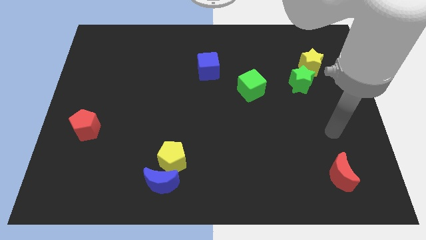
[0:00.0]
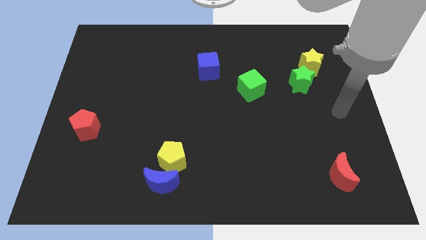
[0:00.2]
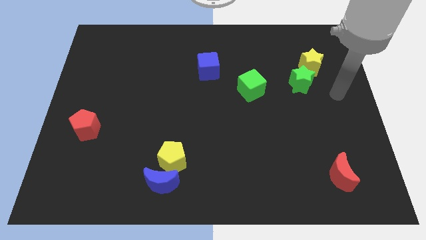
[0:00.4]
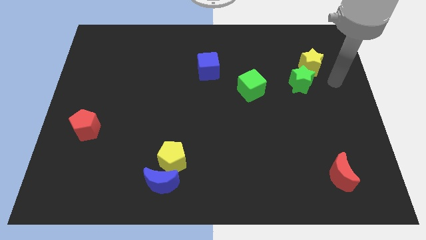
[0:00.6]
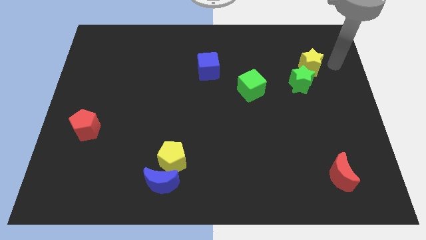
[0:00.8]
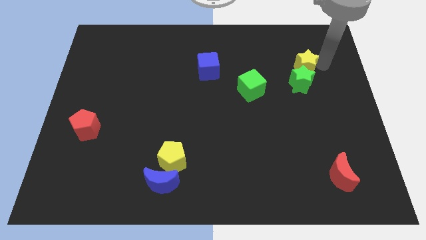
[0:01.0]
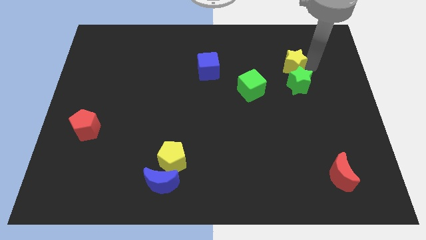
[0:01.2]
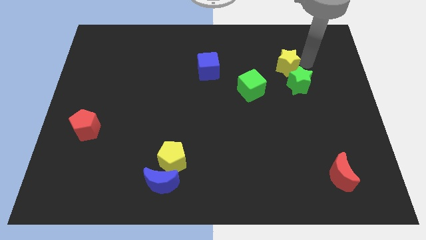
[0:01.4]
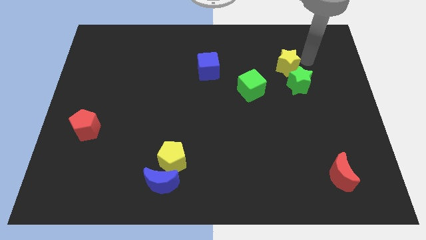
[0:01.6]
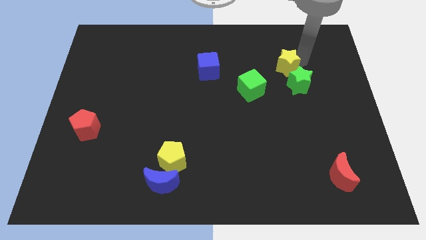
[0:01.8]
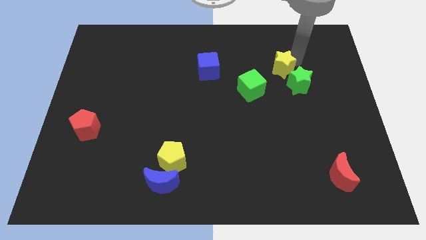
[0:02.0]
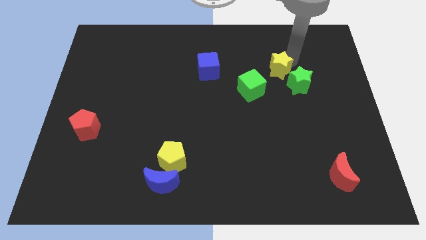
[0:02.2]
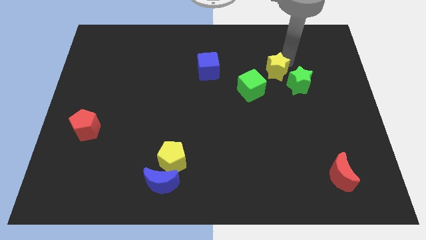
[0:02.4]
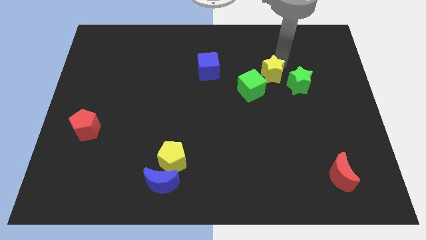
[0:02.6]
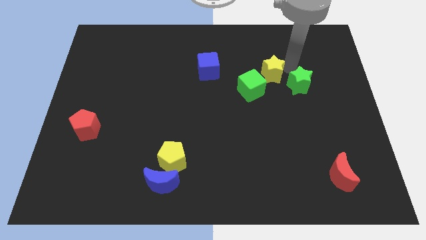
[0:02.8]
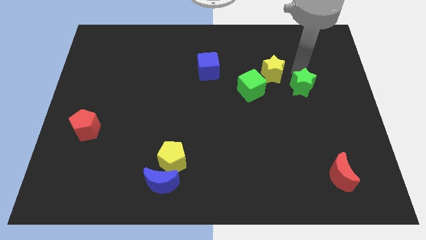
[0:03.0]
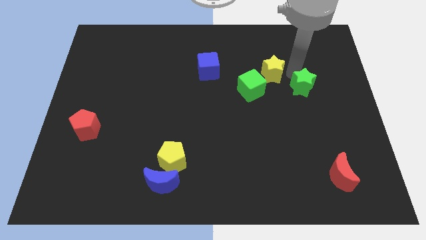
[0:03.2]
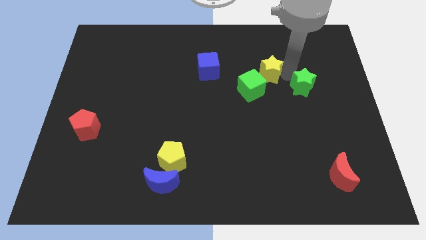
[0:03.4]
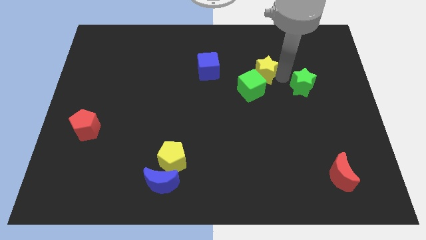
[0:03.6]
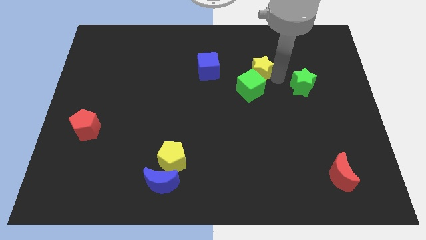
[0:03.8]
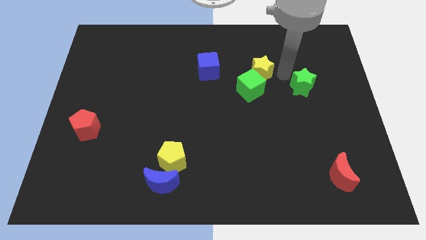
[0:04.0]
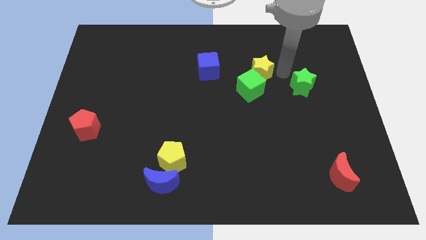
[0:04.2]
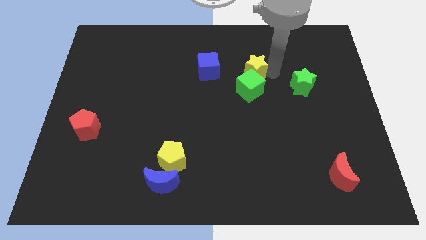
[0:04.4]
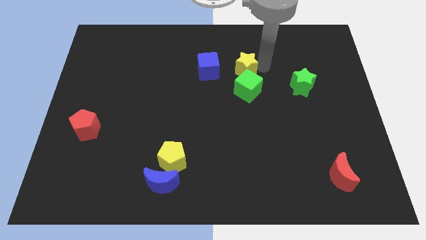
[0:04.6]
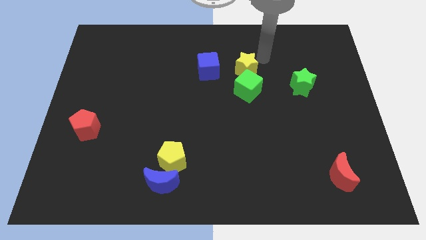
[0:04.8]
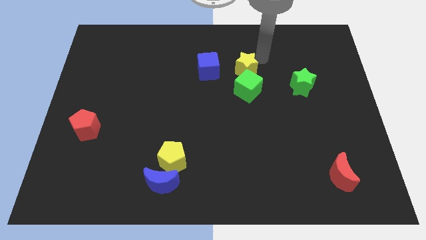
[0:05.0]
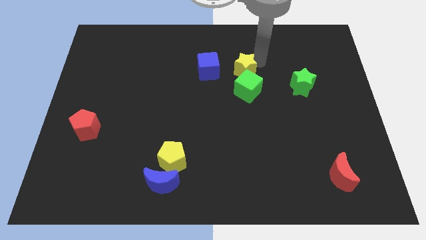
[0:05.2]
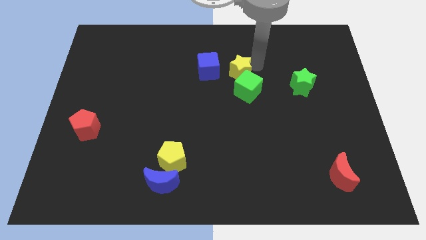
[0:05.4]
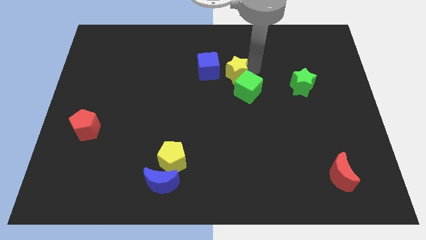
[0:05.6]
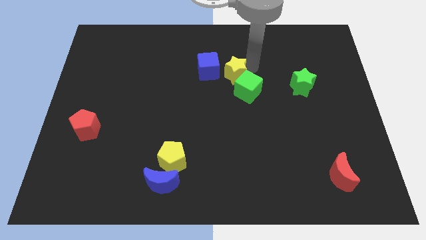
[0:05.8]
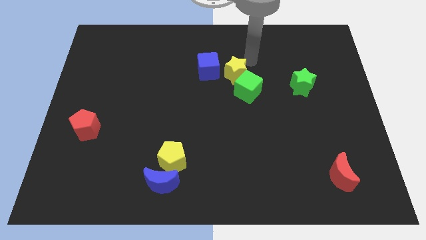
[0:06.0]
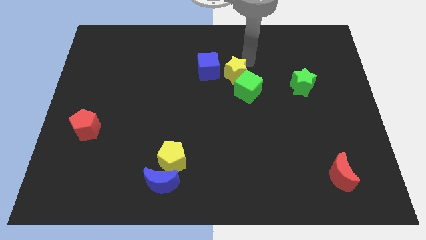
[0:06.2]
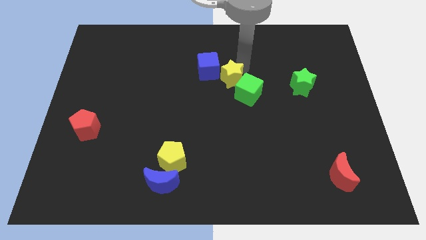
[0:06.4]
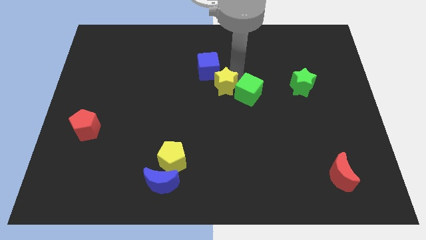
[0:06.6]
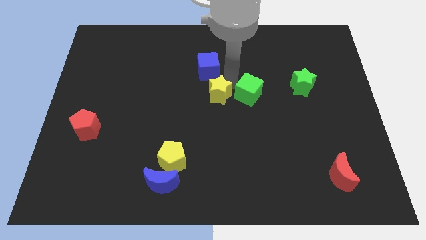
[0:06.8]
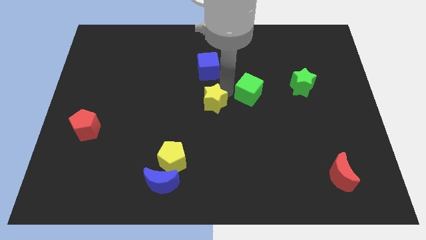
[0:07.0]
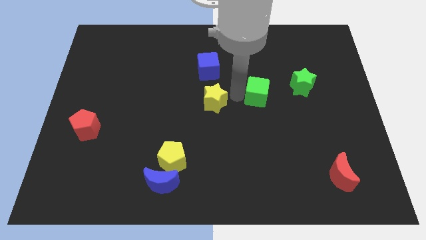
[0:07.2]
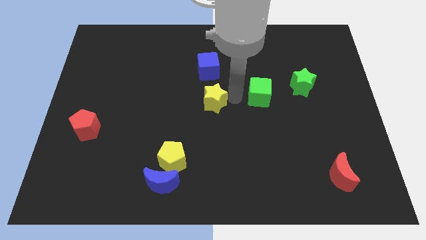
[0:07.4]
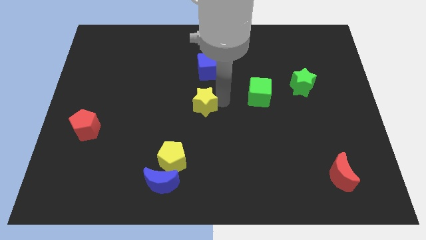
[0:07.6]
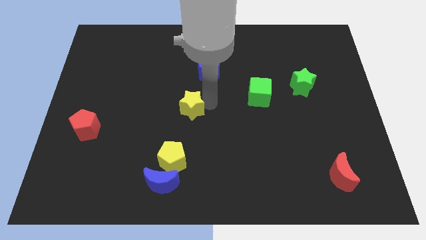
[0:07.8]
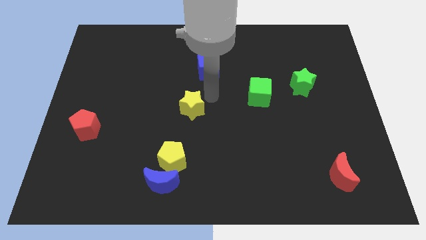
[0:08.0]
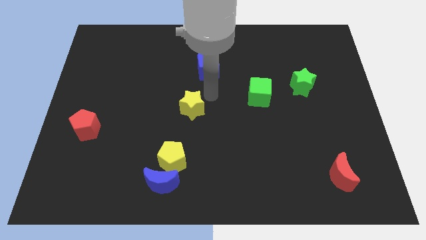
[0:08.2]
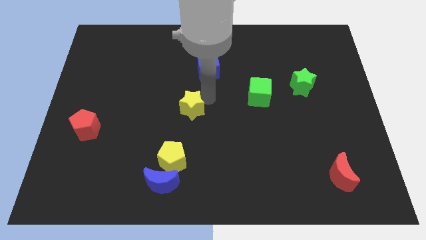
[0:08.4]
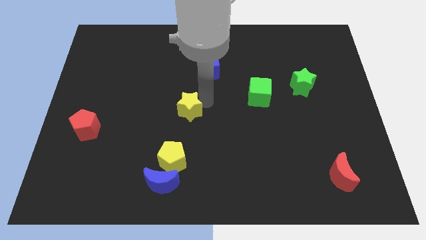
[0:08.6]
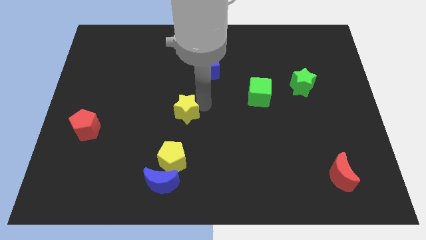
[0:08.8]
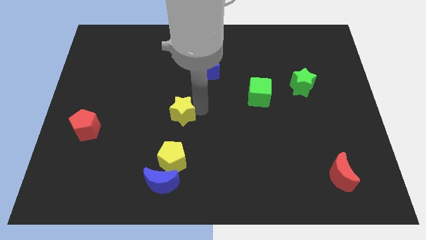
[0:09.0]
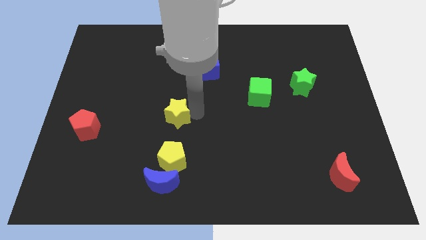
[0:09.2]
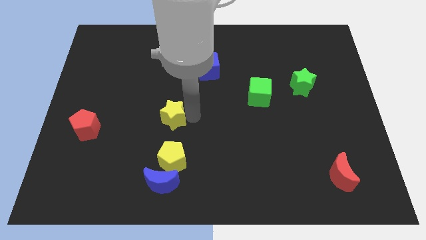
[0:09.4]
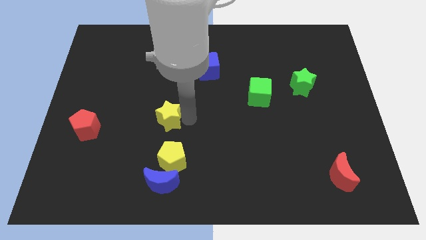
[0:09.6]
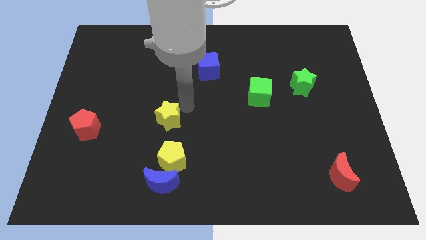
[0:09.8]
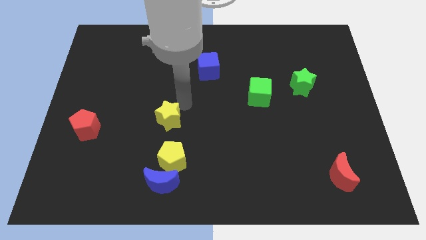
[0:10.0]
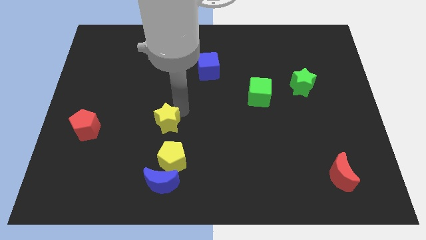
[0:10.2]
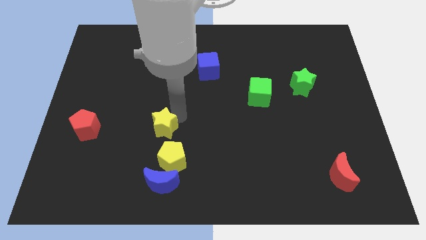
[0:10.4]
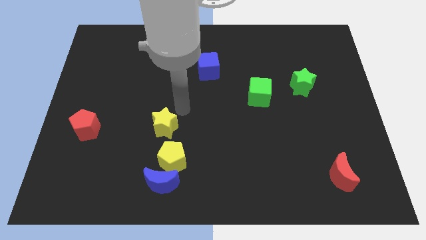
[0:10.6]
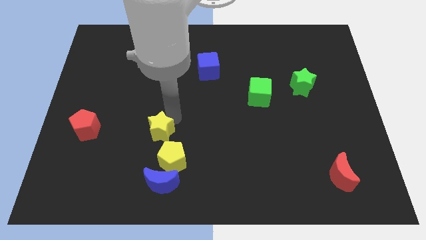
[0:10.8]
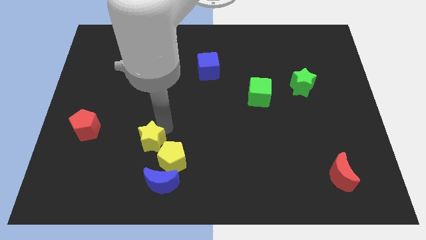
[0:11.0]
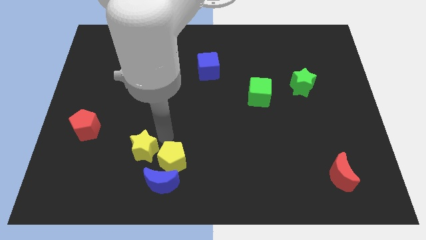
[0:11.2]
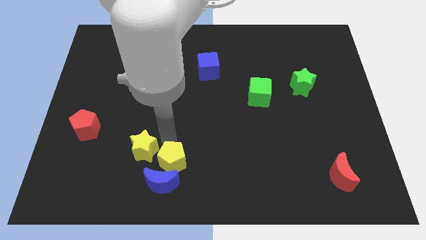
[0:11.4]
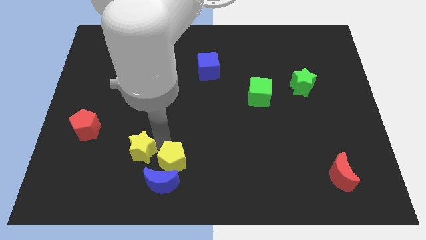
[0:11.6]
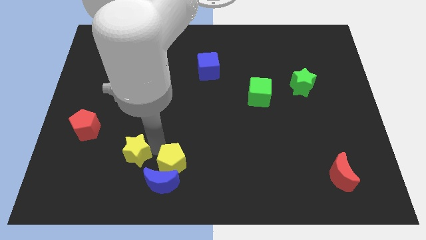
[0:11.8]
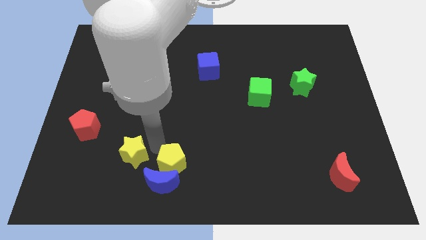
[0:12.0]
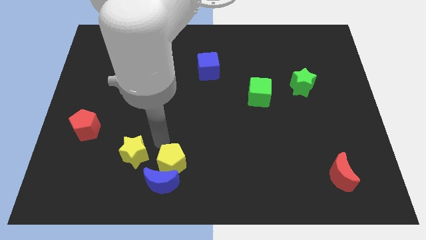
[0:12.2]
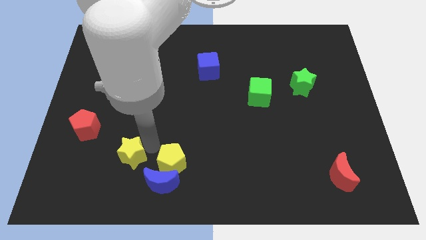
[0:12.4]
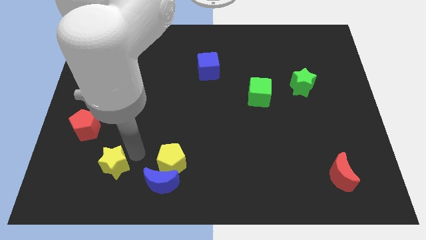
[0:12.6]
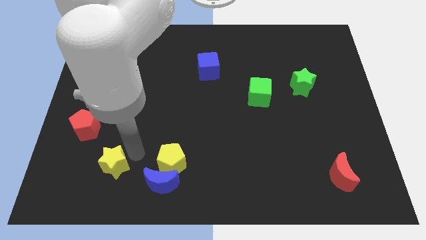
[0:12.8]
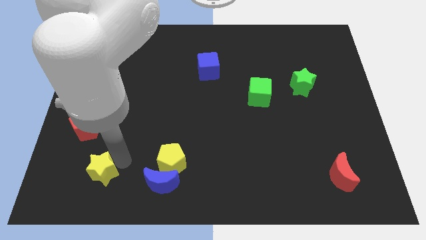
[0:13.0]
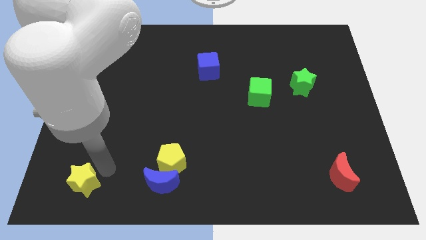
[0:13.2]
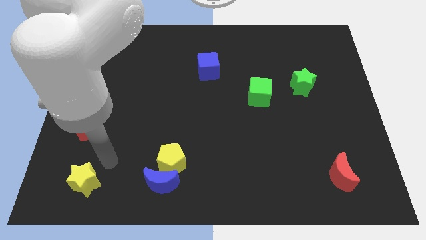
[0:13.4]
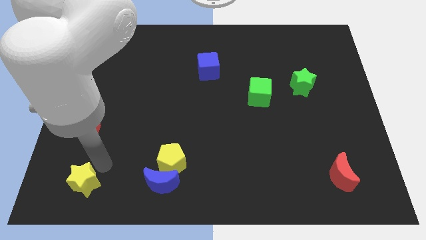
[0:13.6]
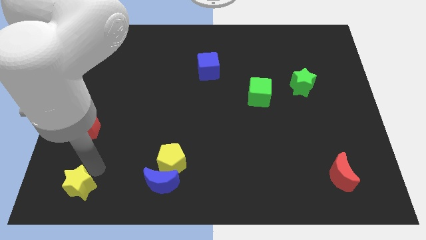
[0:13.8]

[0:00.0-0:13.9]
move the yellow star to the bottom left of the board
